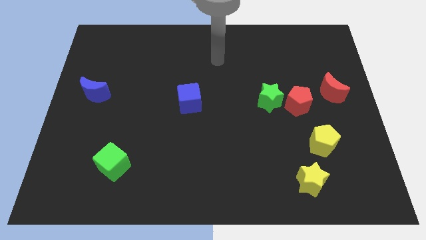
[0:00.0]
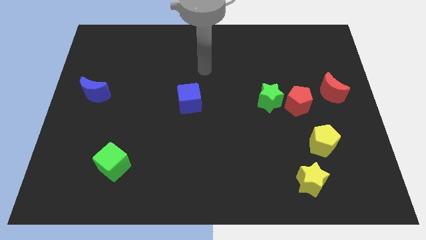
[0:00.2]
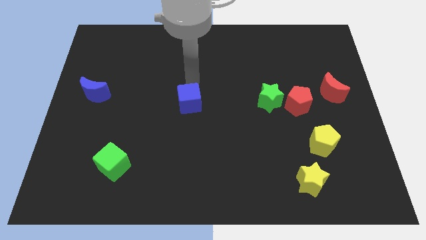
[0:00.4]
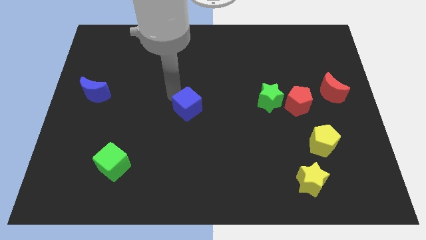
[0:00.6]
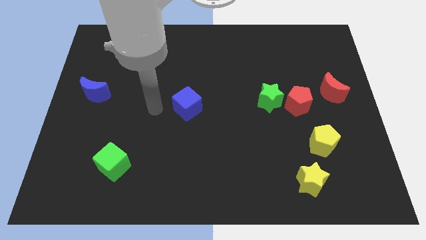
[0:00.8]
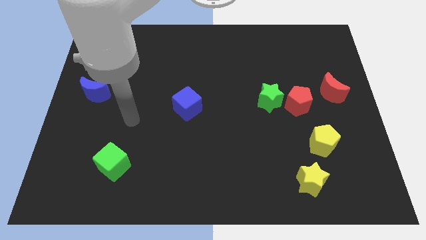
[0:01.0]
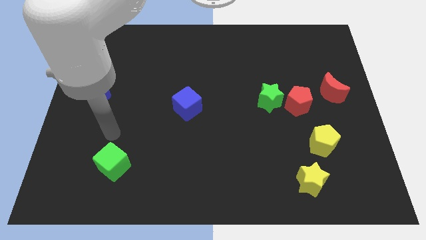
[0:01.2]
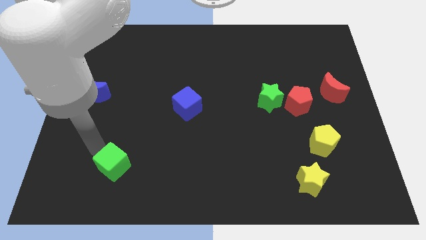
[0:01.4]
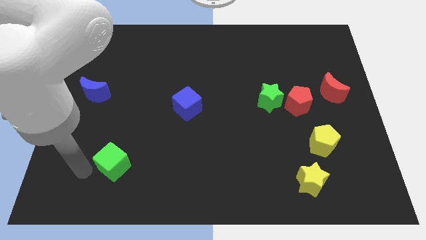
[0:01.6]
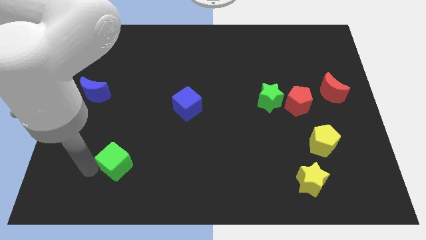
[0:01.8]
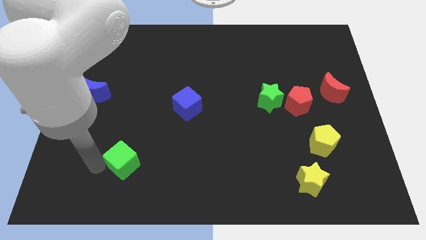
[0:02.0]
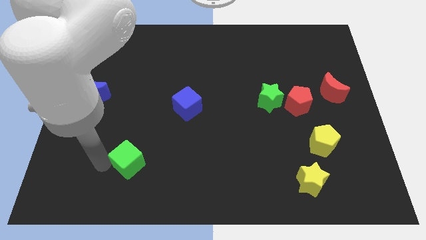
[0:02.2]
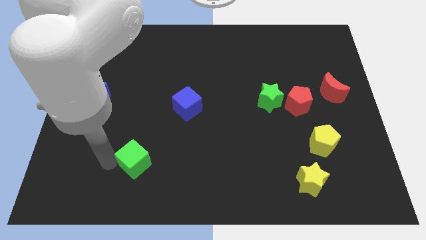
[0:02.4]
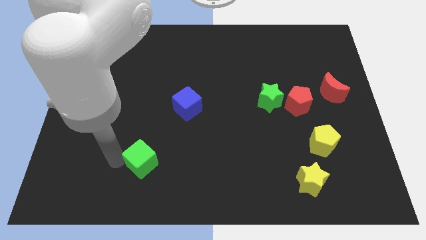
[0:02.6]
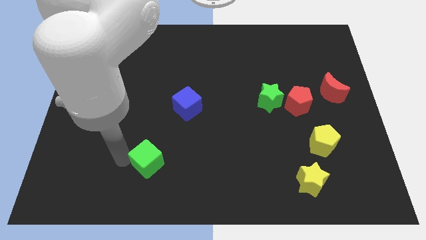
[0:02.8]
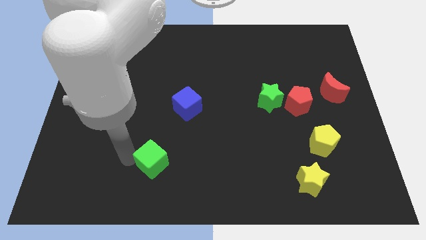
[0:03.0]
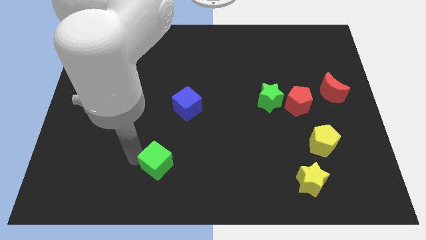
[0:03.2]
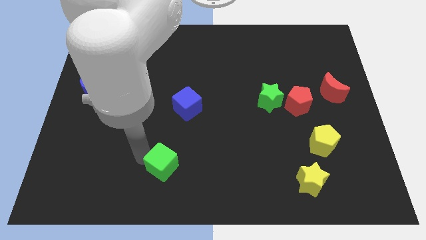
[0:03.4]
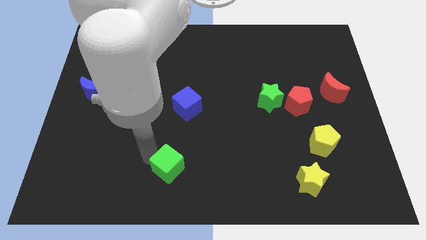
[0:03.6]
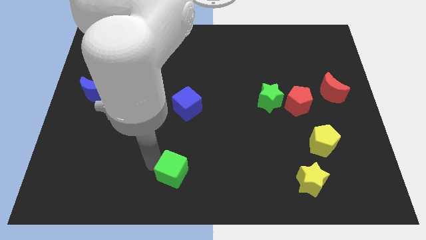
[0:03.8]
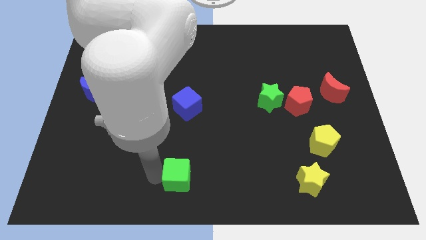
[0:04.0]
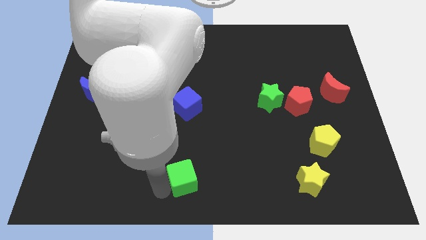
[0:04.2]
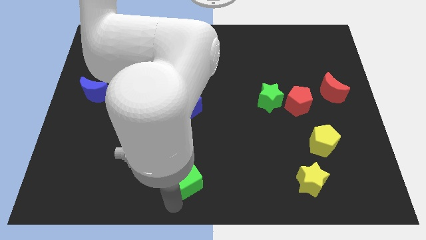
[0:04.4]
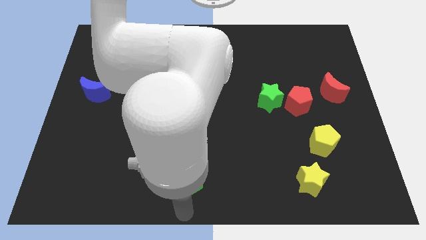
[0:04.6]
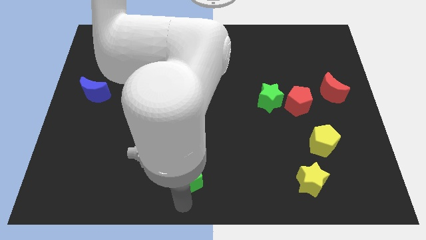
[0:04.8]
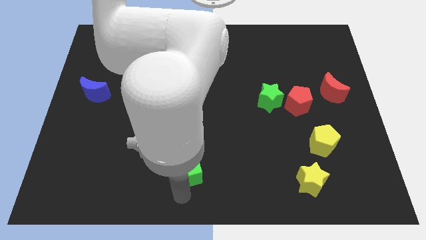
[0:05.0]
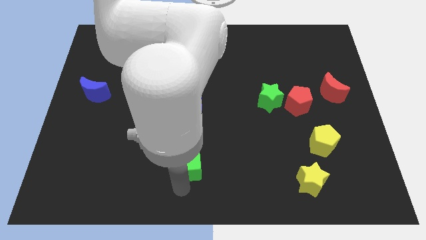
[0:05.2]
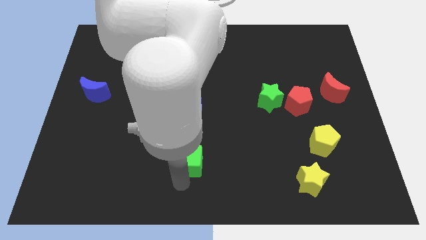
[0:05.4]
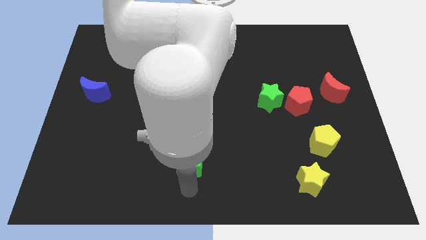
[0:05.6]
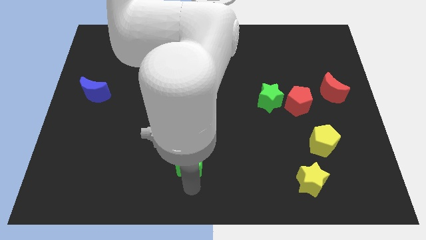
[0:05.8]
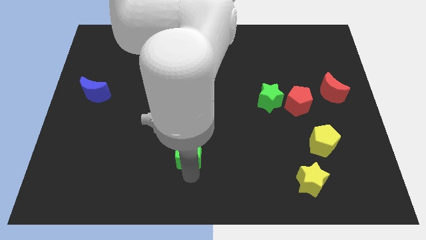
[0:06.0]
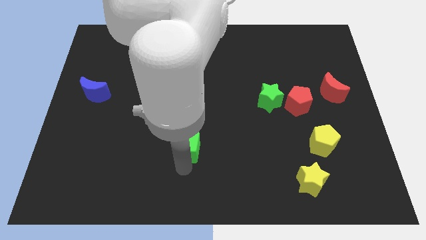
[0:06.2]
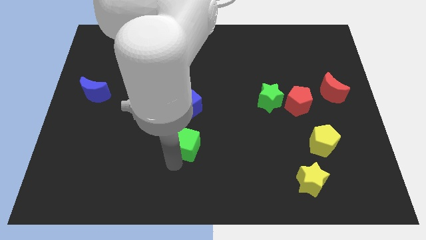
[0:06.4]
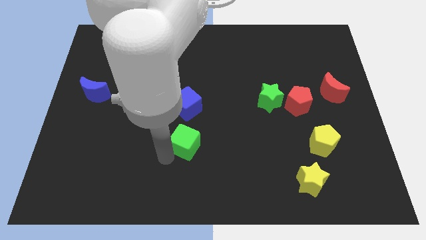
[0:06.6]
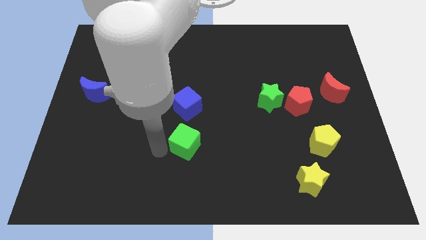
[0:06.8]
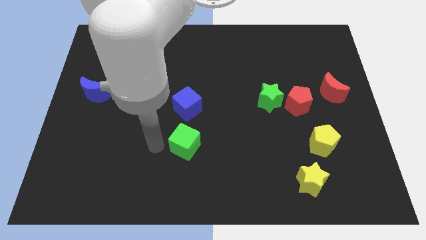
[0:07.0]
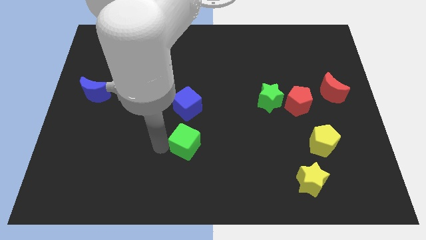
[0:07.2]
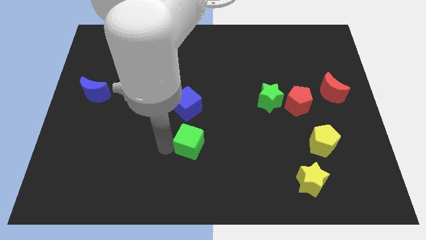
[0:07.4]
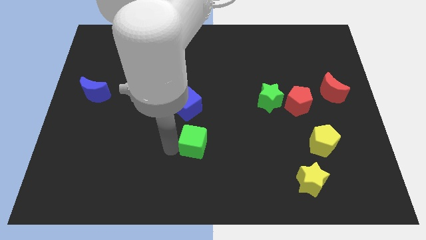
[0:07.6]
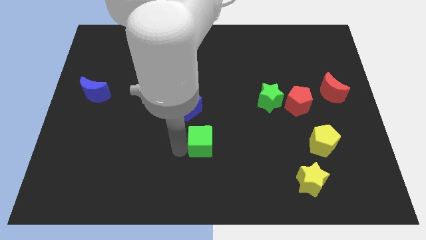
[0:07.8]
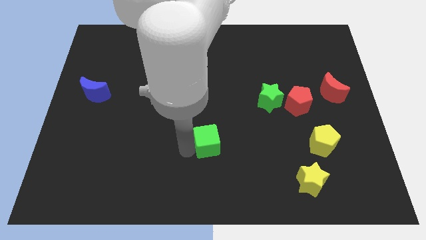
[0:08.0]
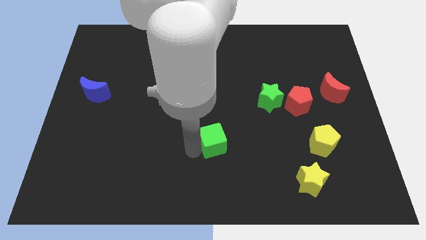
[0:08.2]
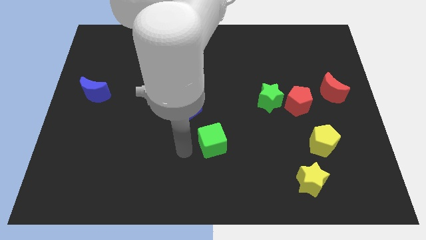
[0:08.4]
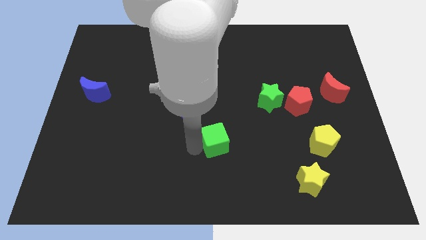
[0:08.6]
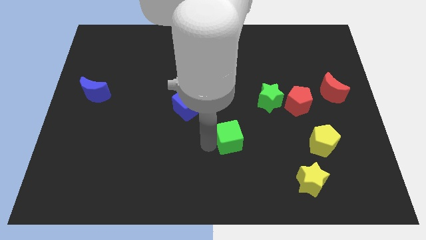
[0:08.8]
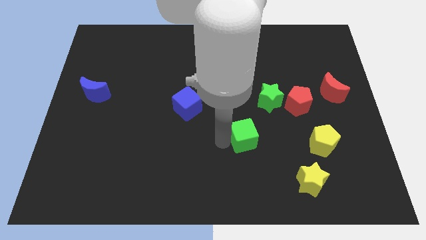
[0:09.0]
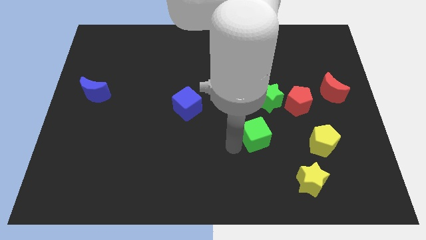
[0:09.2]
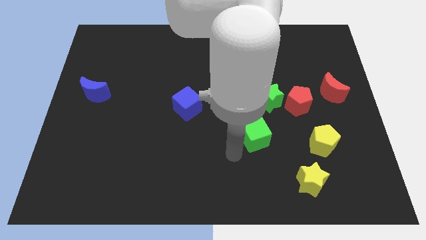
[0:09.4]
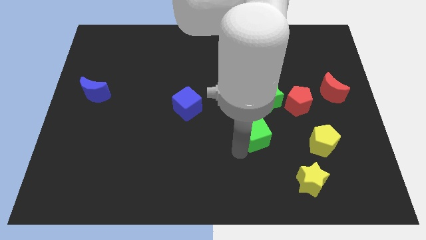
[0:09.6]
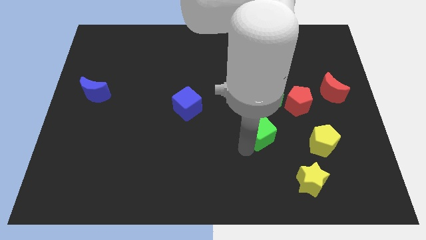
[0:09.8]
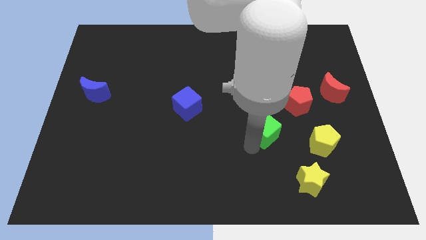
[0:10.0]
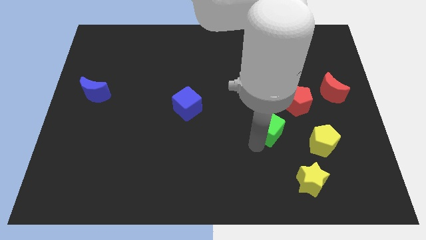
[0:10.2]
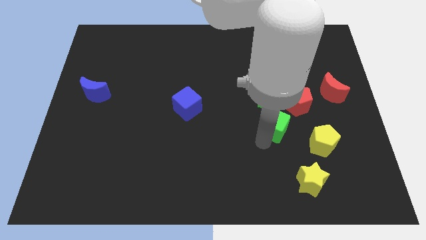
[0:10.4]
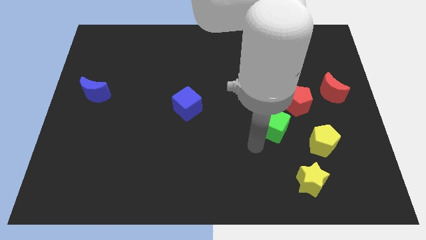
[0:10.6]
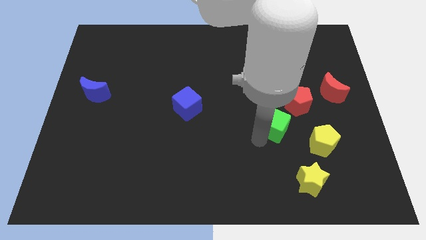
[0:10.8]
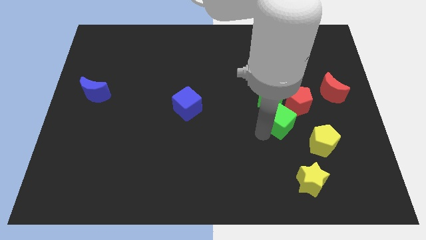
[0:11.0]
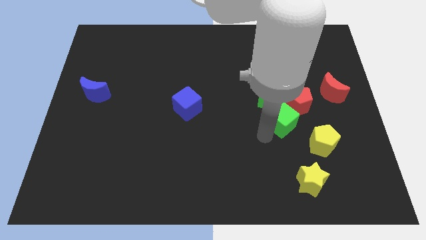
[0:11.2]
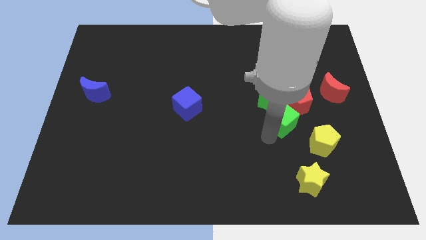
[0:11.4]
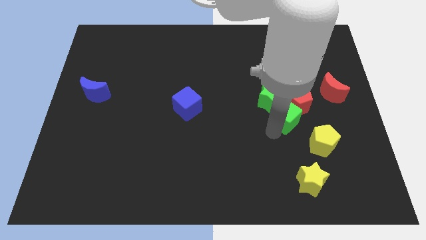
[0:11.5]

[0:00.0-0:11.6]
move the green cube close to the red pentagon

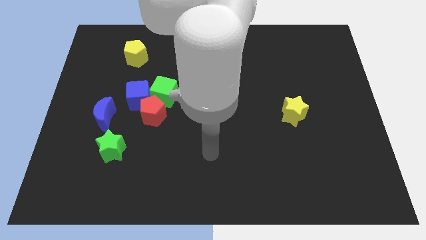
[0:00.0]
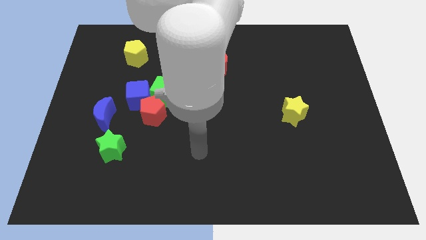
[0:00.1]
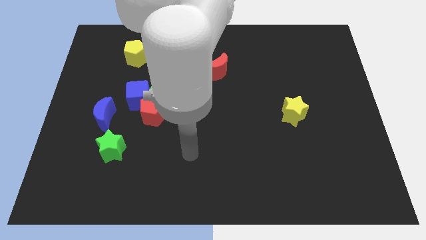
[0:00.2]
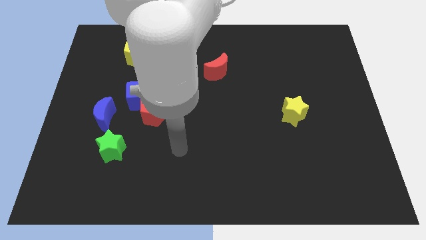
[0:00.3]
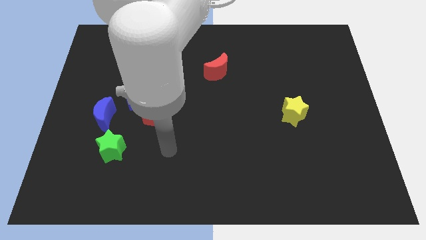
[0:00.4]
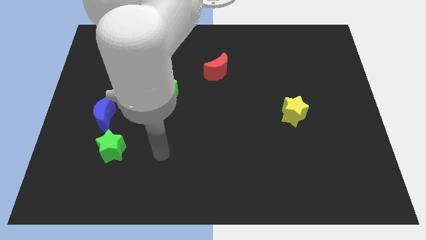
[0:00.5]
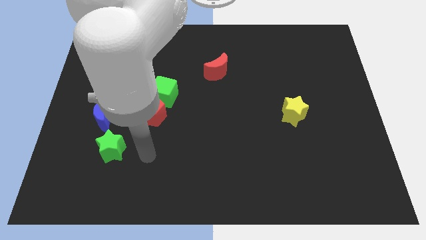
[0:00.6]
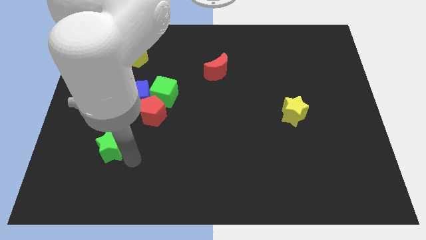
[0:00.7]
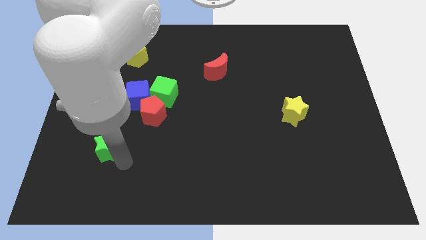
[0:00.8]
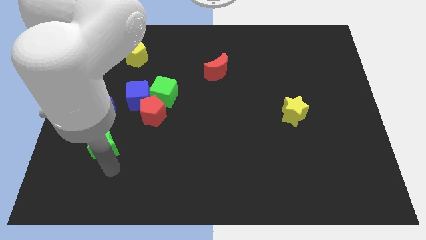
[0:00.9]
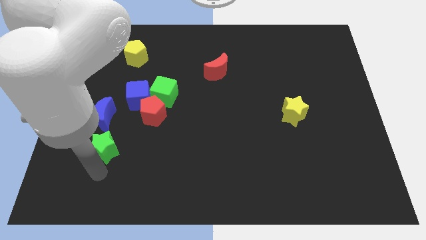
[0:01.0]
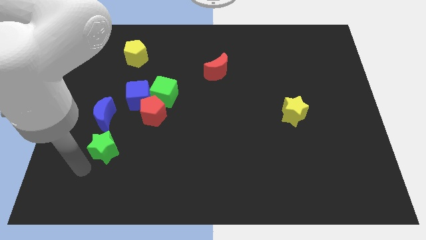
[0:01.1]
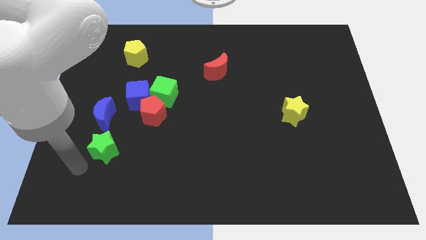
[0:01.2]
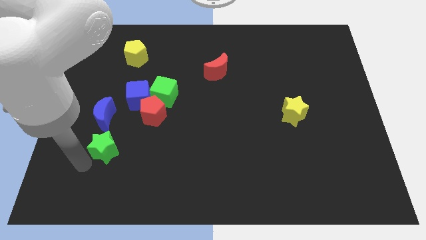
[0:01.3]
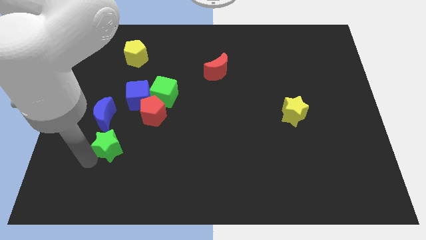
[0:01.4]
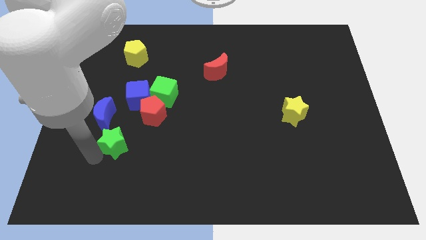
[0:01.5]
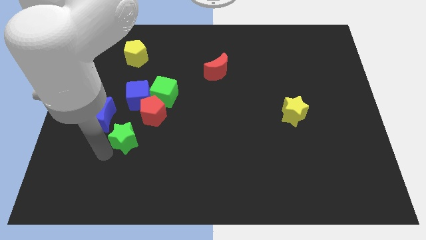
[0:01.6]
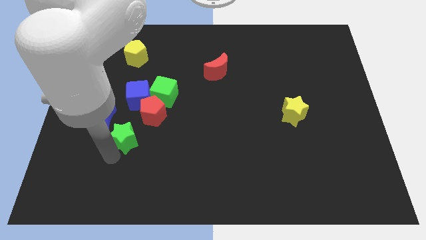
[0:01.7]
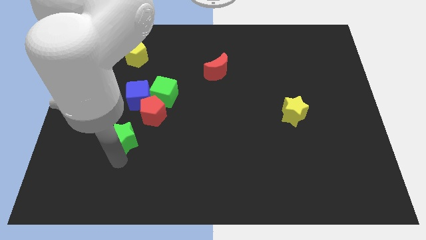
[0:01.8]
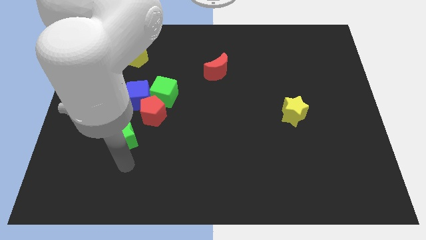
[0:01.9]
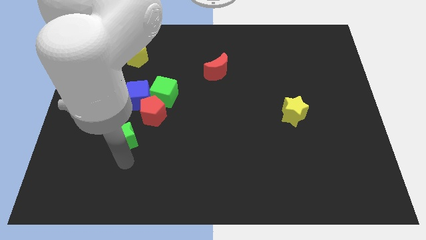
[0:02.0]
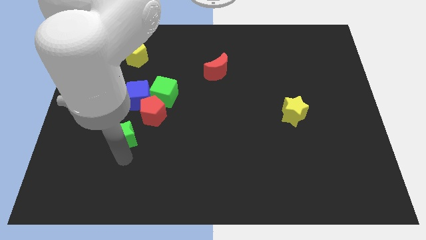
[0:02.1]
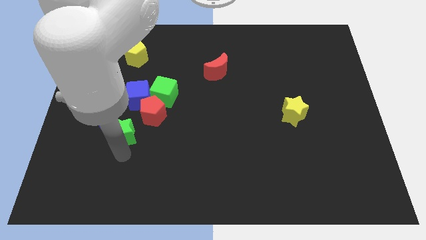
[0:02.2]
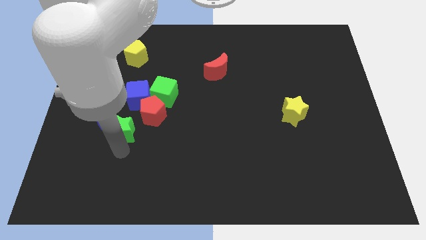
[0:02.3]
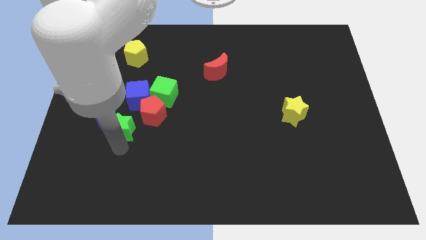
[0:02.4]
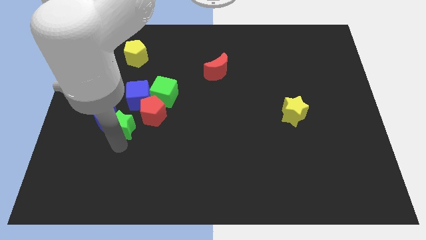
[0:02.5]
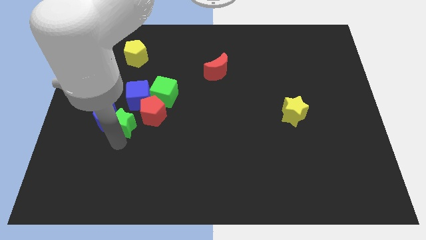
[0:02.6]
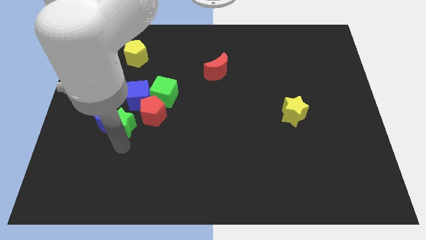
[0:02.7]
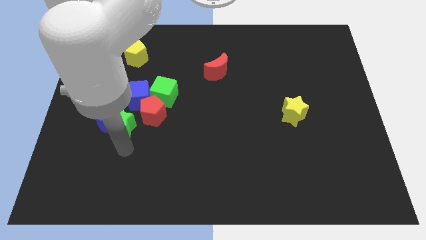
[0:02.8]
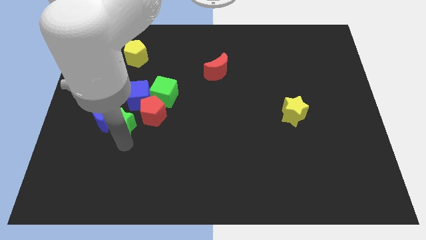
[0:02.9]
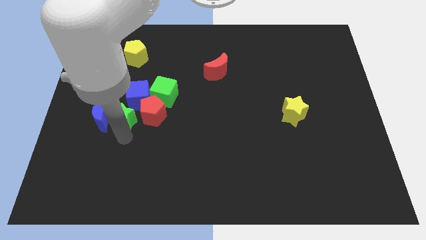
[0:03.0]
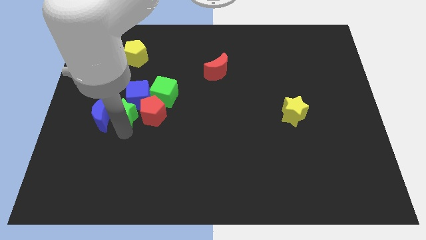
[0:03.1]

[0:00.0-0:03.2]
move the green star close to the blue cube
